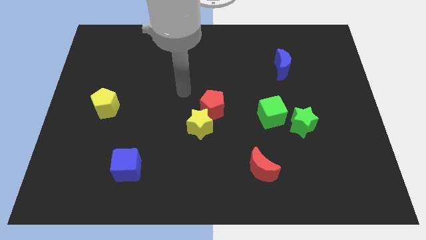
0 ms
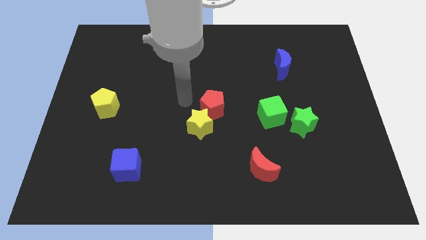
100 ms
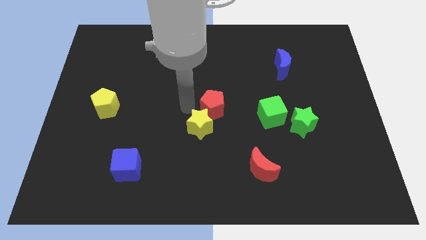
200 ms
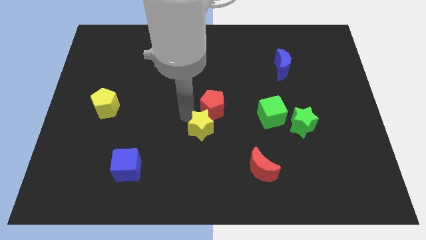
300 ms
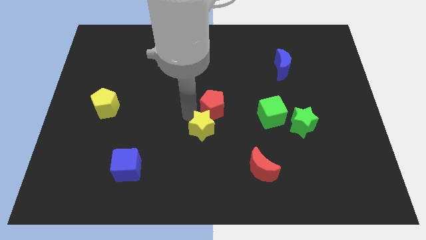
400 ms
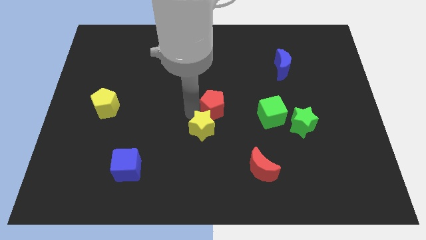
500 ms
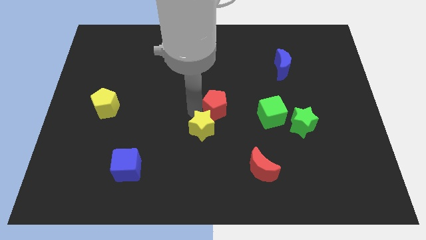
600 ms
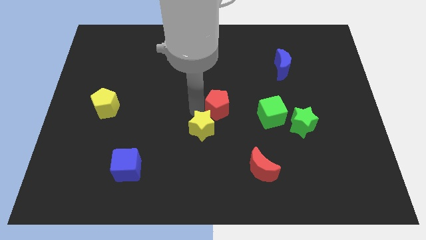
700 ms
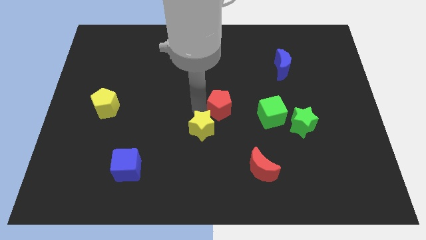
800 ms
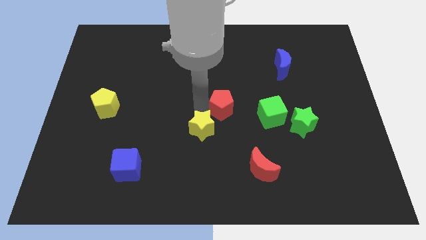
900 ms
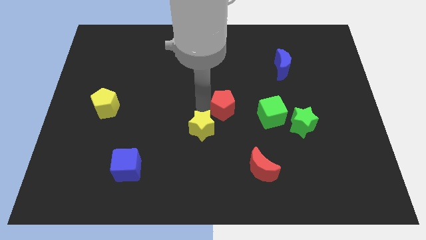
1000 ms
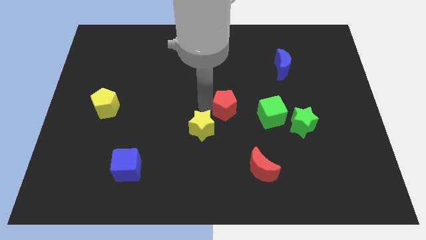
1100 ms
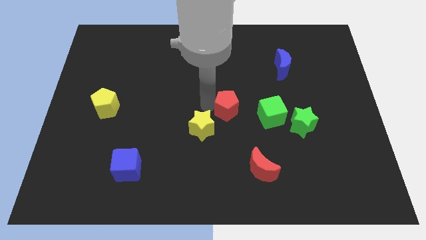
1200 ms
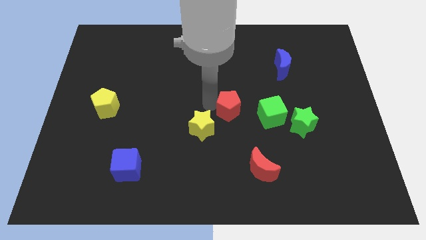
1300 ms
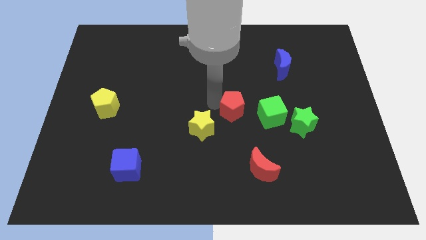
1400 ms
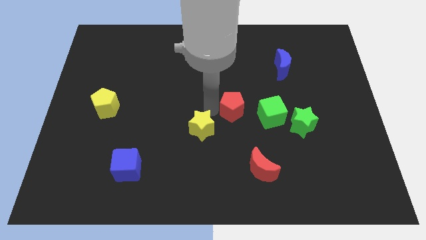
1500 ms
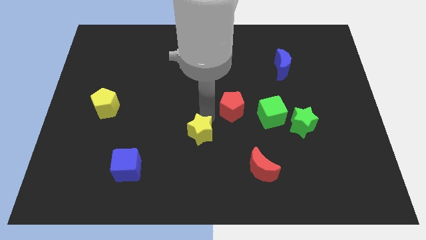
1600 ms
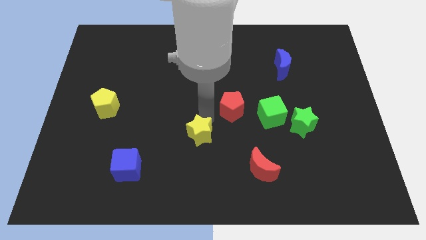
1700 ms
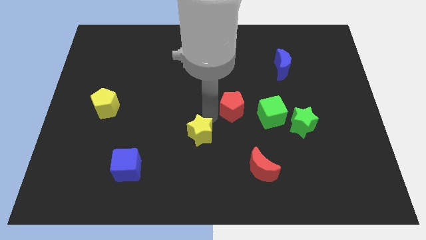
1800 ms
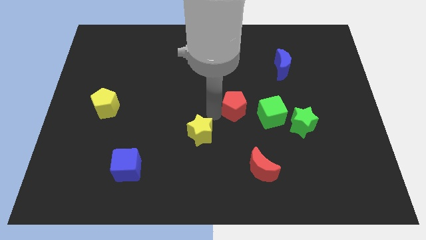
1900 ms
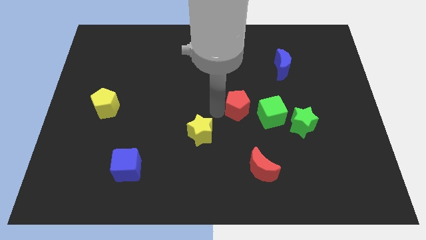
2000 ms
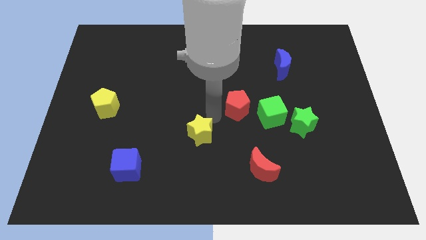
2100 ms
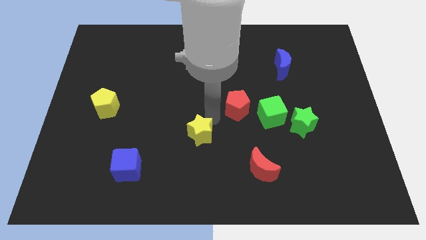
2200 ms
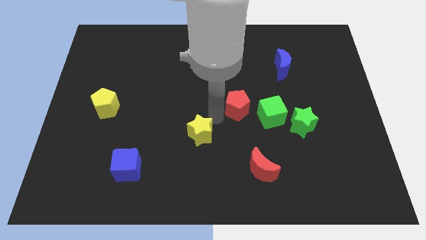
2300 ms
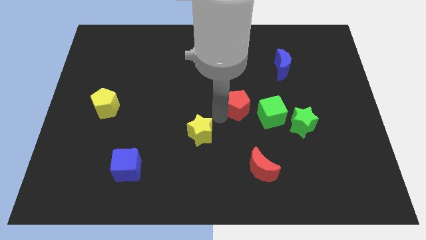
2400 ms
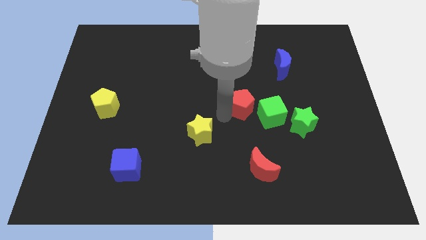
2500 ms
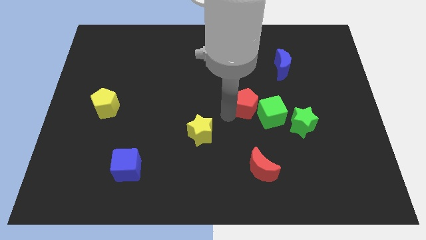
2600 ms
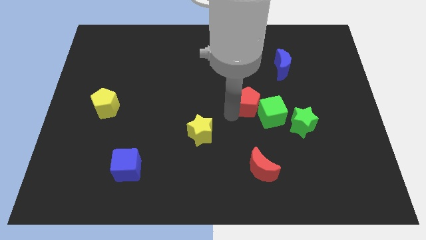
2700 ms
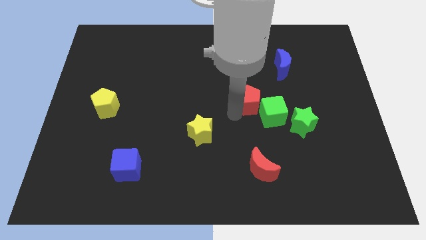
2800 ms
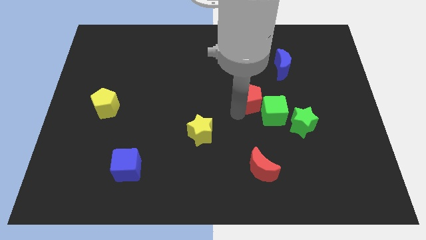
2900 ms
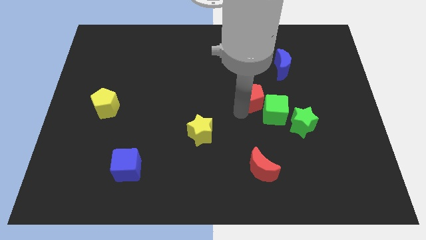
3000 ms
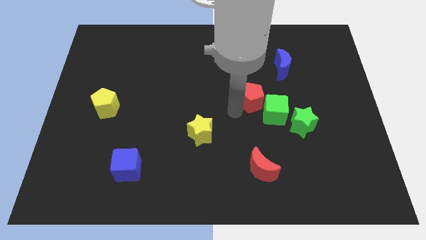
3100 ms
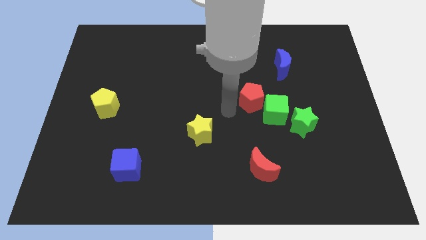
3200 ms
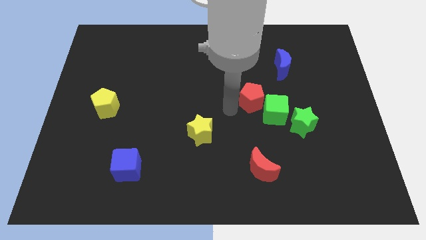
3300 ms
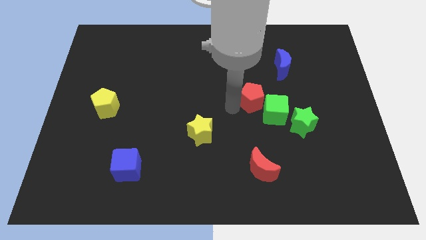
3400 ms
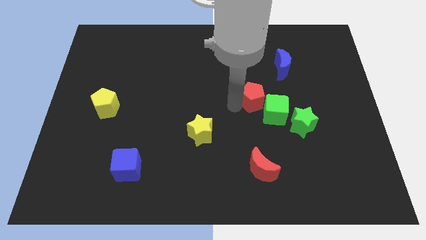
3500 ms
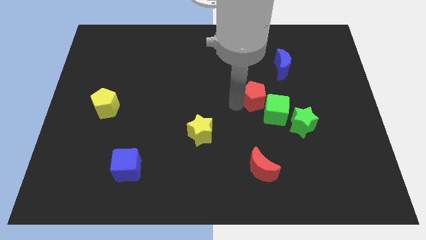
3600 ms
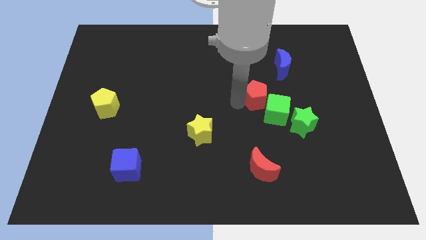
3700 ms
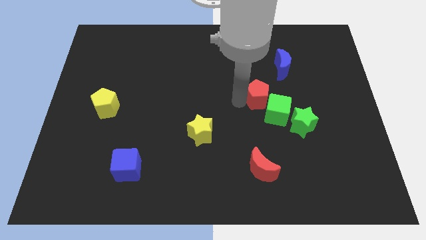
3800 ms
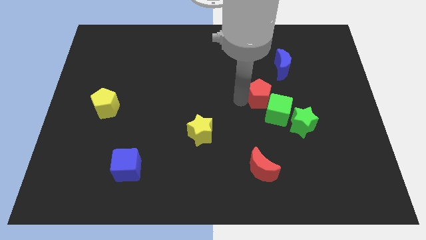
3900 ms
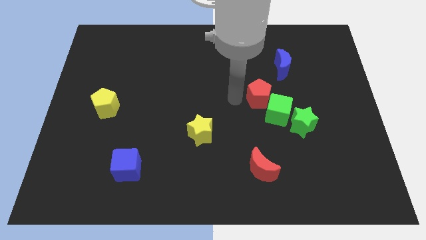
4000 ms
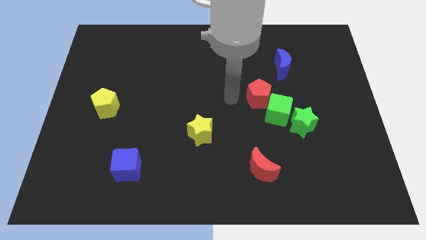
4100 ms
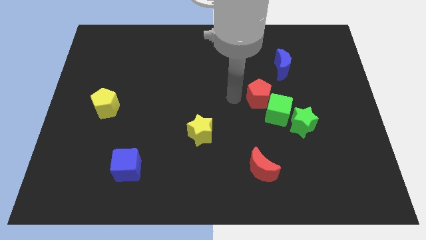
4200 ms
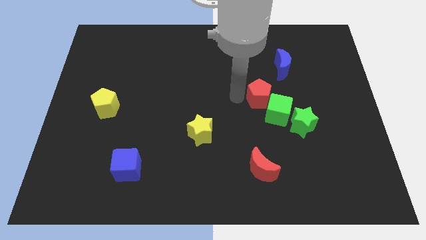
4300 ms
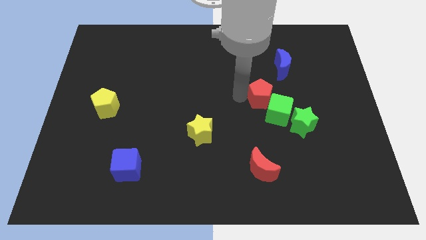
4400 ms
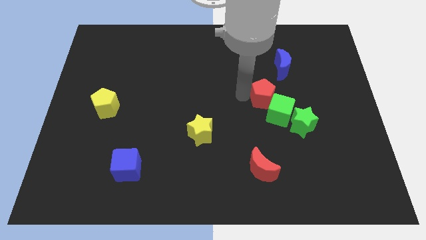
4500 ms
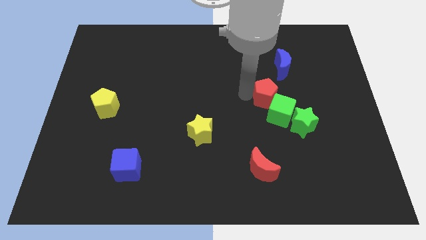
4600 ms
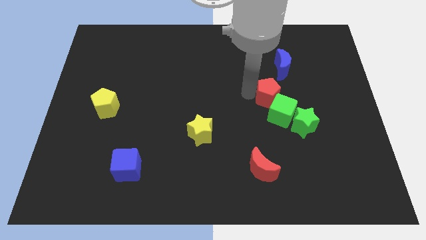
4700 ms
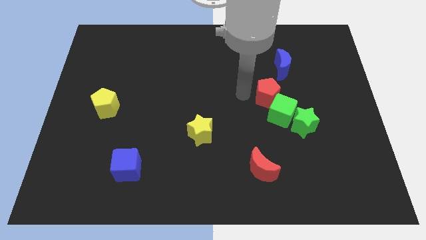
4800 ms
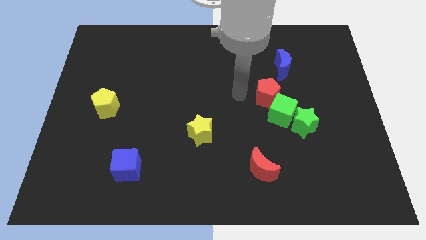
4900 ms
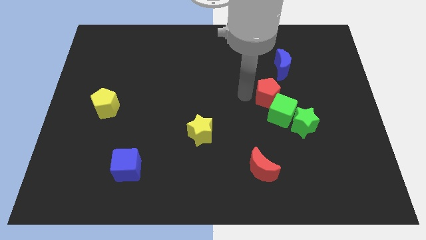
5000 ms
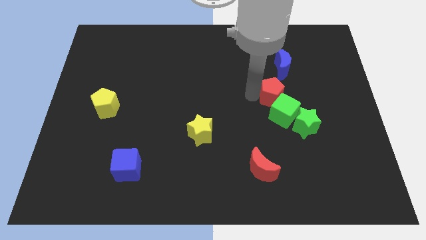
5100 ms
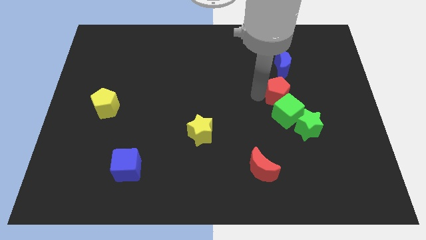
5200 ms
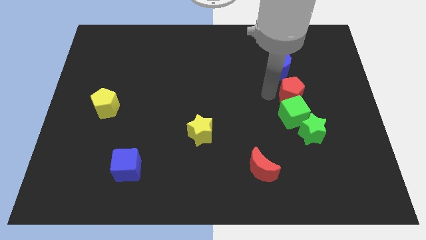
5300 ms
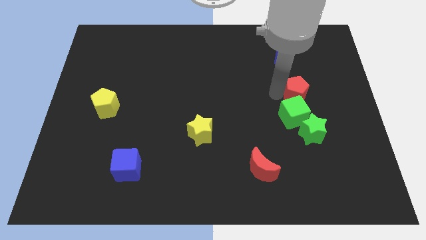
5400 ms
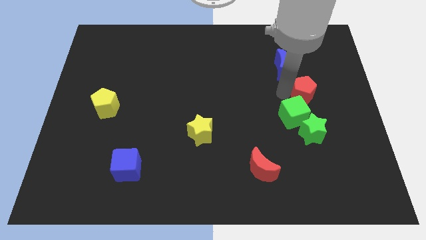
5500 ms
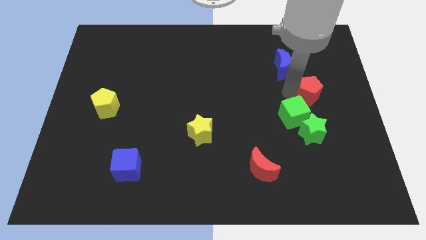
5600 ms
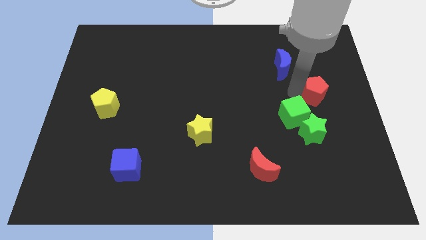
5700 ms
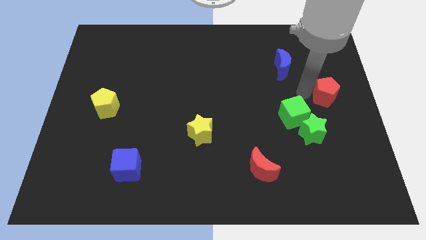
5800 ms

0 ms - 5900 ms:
slide the red pentagon to the right side
